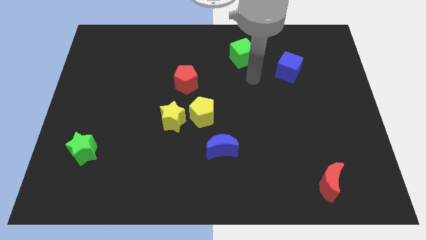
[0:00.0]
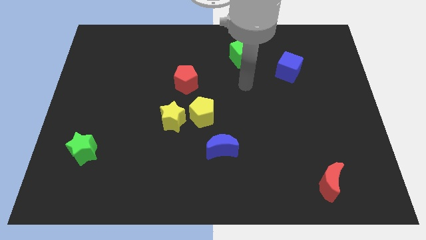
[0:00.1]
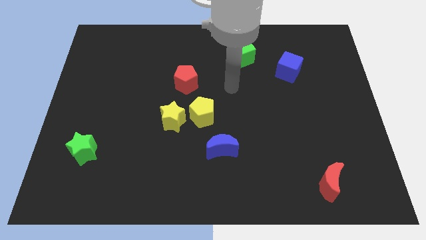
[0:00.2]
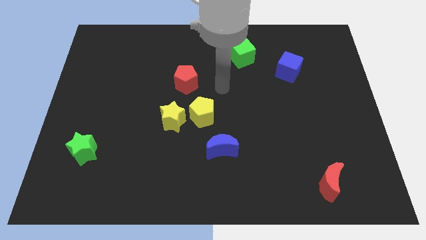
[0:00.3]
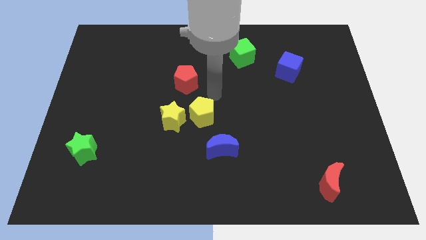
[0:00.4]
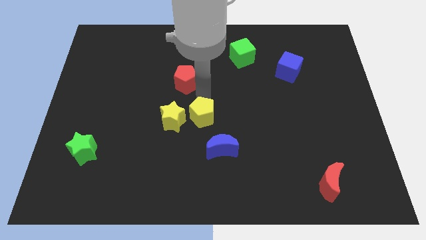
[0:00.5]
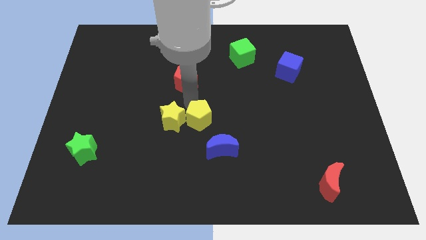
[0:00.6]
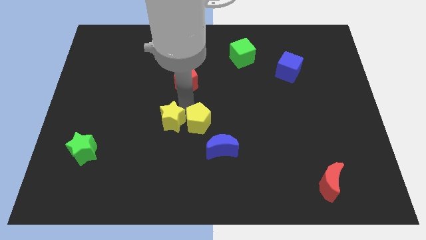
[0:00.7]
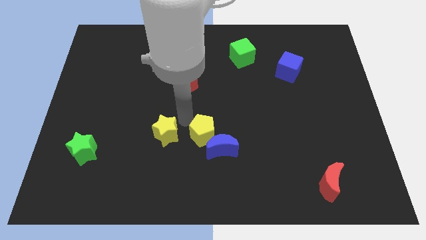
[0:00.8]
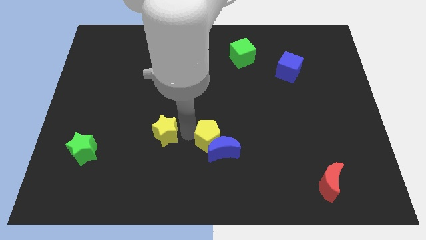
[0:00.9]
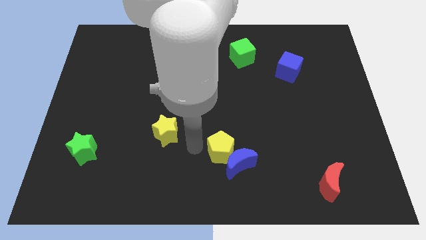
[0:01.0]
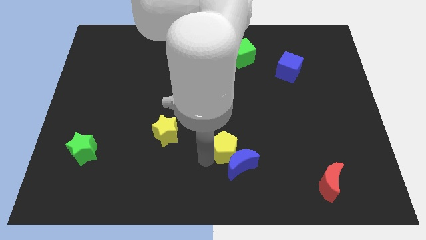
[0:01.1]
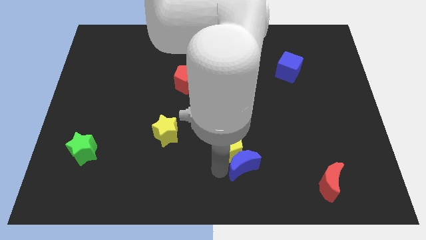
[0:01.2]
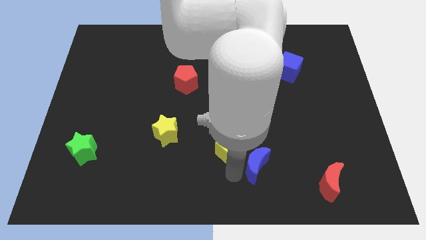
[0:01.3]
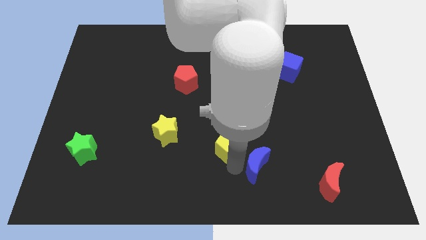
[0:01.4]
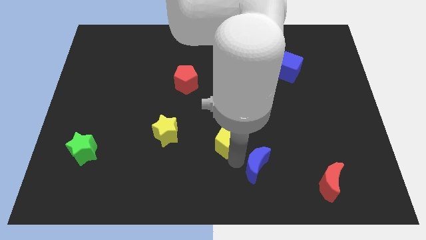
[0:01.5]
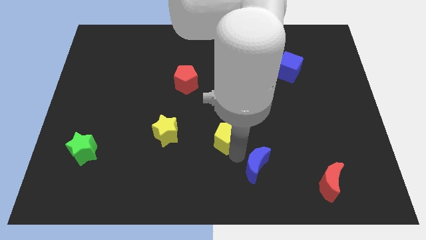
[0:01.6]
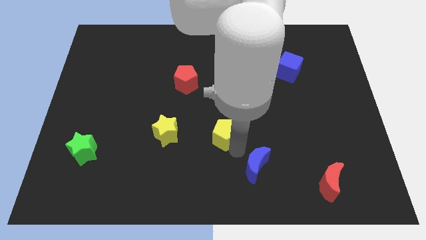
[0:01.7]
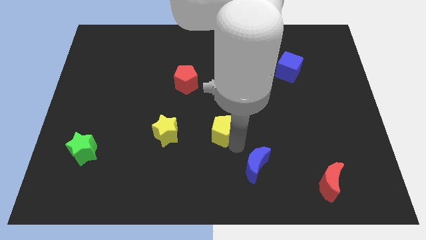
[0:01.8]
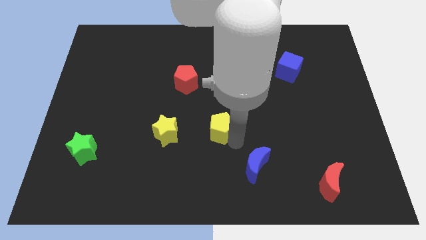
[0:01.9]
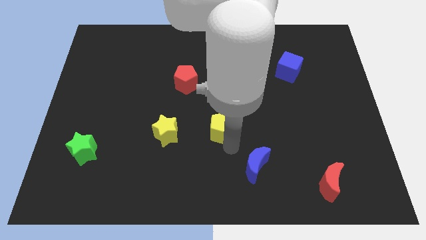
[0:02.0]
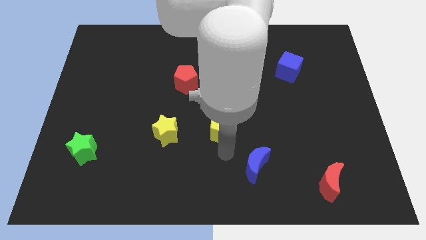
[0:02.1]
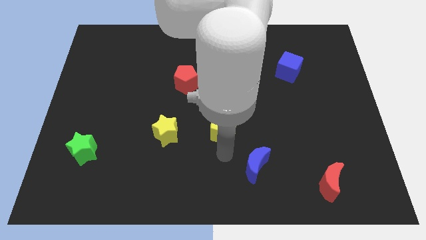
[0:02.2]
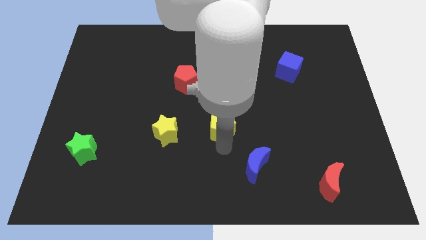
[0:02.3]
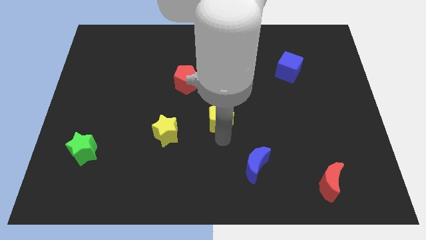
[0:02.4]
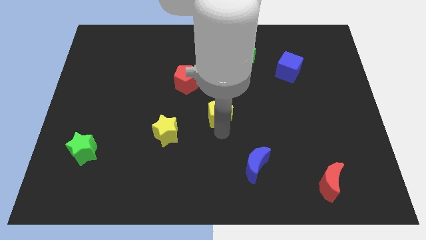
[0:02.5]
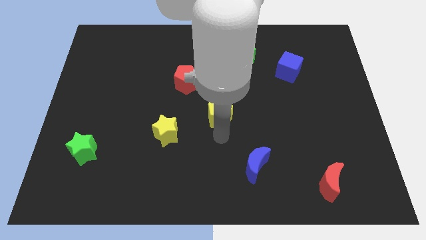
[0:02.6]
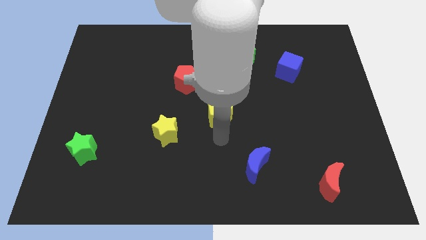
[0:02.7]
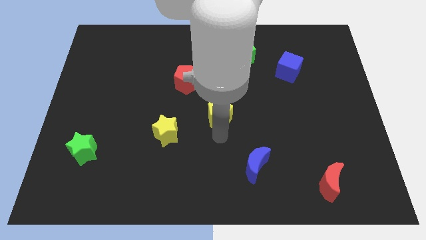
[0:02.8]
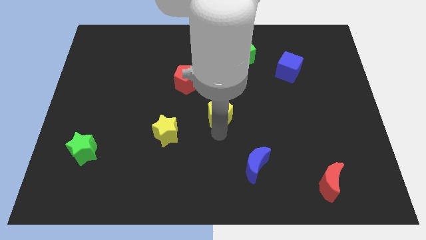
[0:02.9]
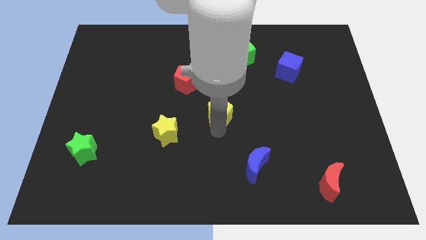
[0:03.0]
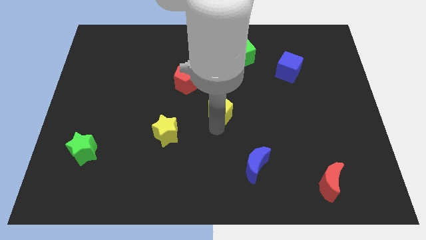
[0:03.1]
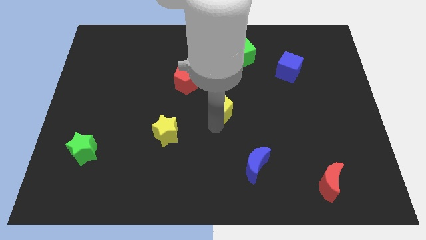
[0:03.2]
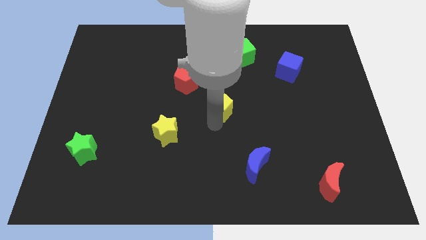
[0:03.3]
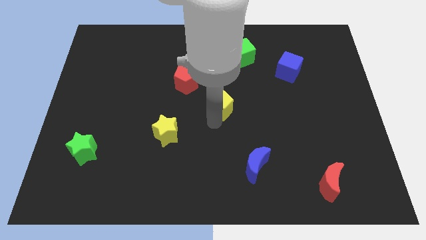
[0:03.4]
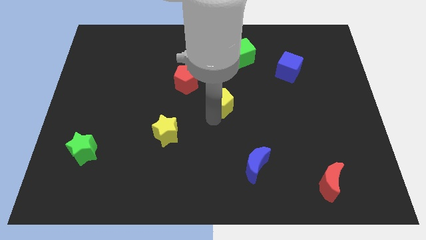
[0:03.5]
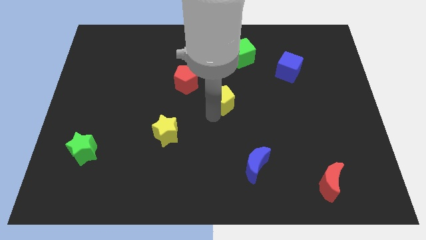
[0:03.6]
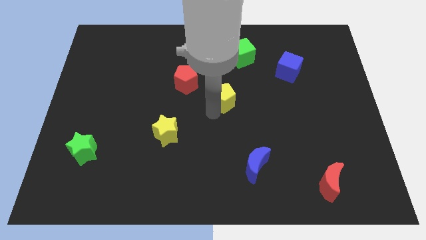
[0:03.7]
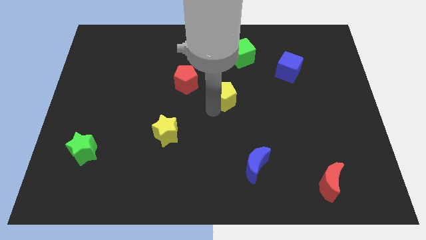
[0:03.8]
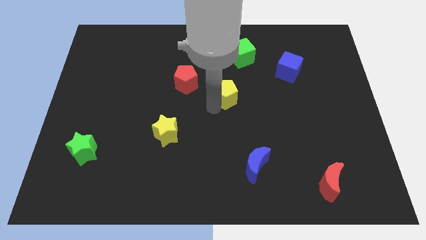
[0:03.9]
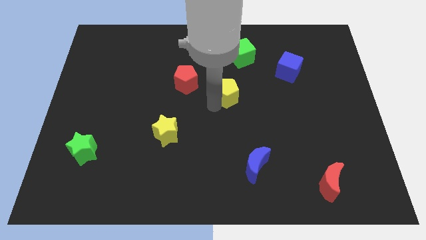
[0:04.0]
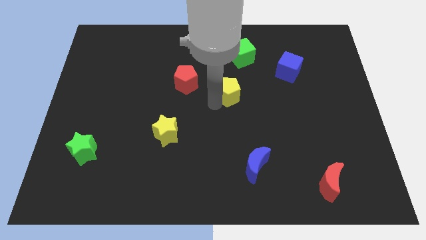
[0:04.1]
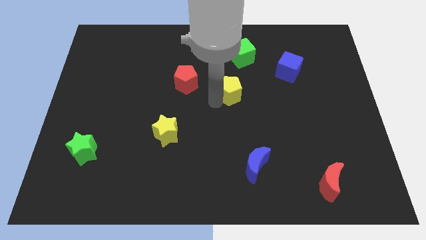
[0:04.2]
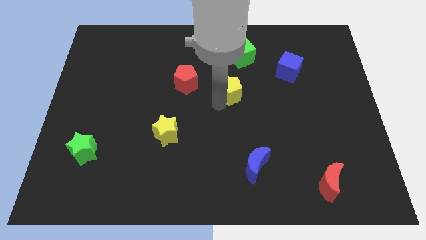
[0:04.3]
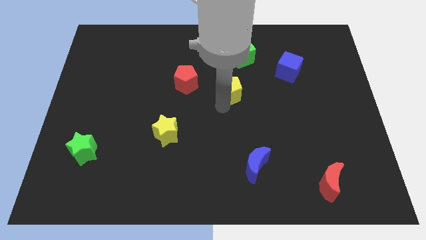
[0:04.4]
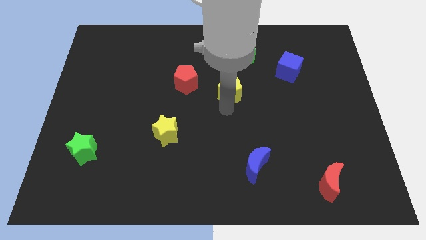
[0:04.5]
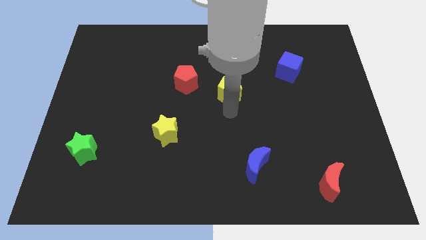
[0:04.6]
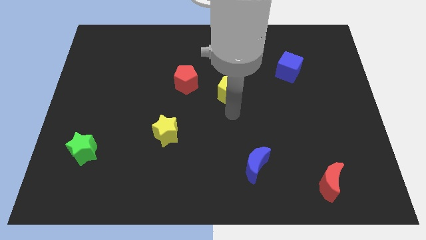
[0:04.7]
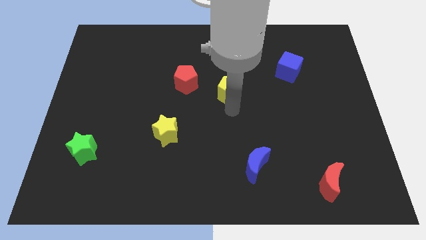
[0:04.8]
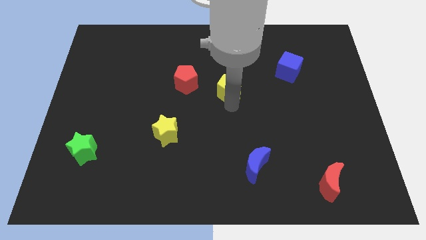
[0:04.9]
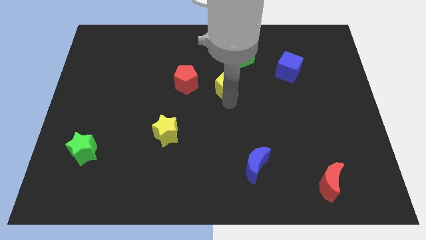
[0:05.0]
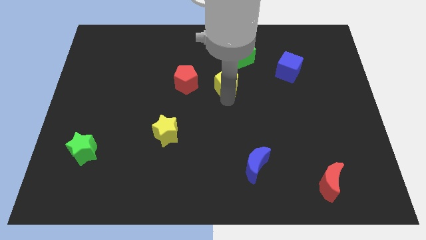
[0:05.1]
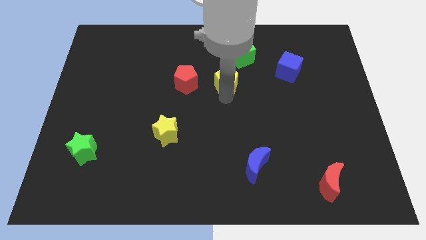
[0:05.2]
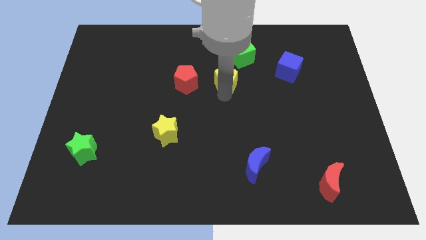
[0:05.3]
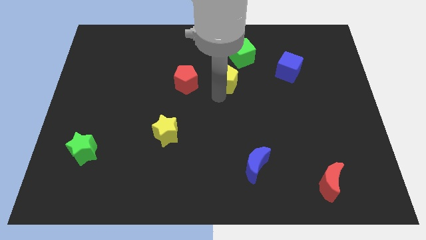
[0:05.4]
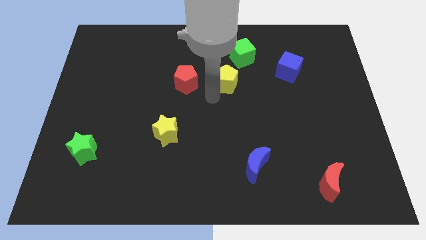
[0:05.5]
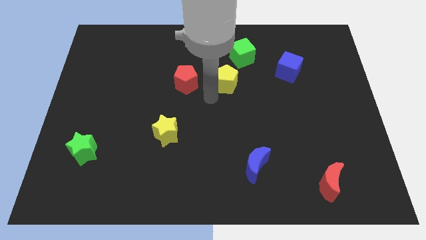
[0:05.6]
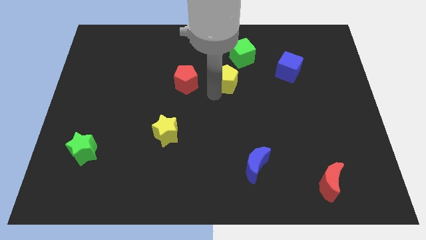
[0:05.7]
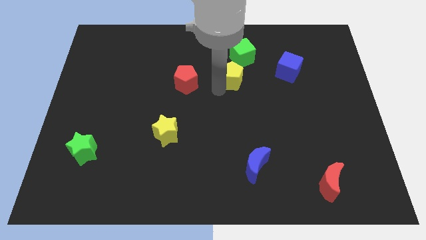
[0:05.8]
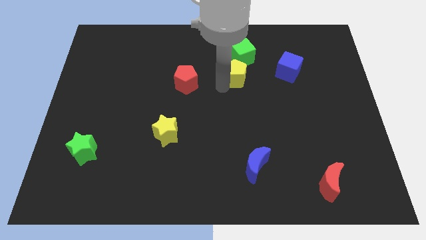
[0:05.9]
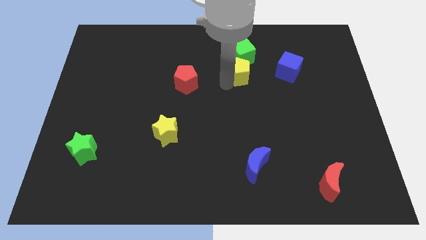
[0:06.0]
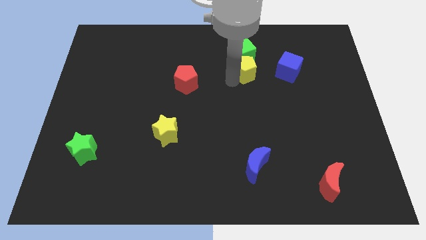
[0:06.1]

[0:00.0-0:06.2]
put the yellow pentagon next to the green cube

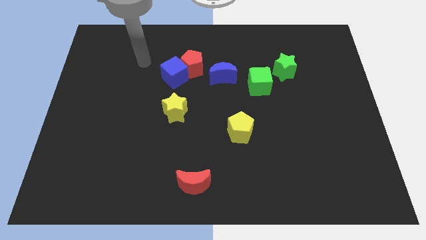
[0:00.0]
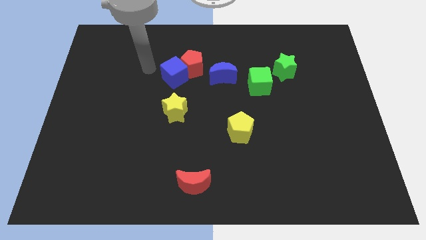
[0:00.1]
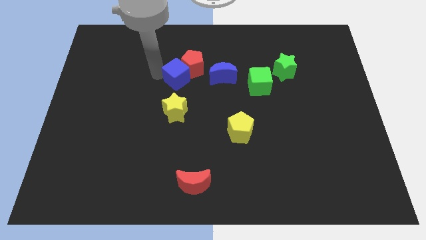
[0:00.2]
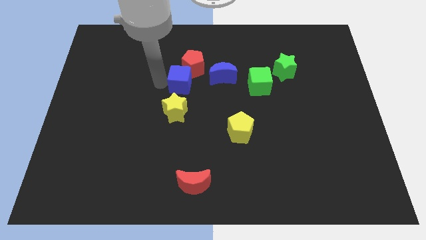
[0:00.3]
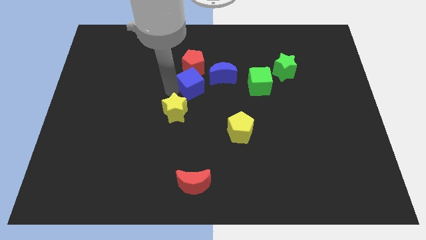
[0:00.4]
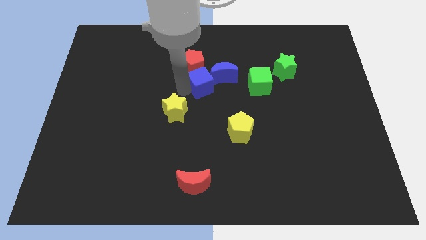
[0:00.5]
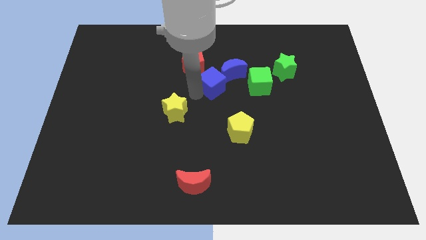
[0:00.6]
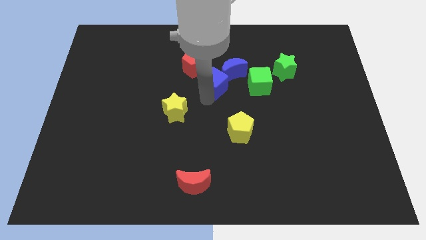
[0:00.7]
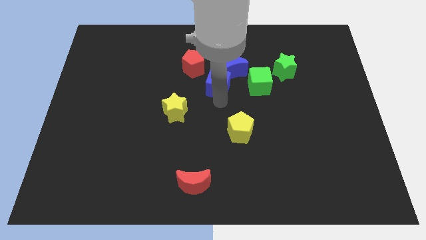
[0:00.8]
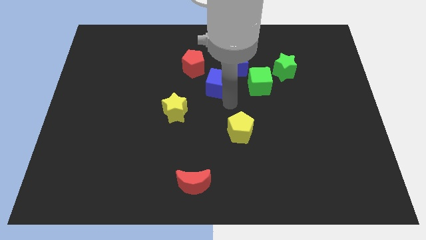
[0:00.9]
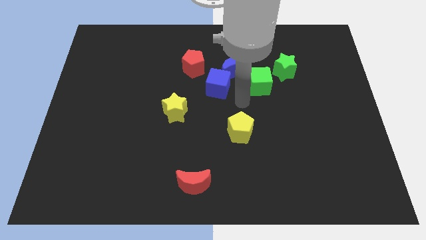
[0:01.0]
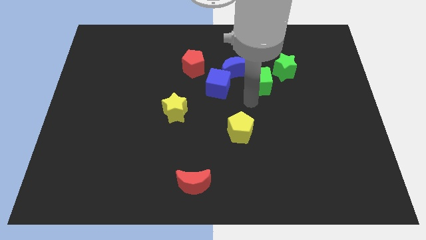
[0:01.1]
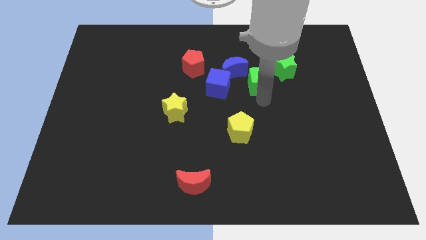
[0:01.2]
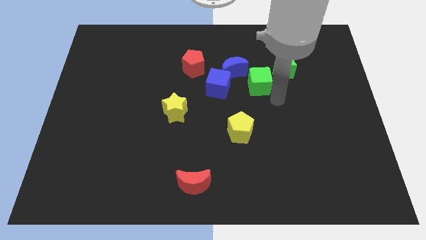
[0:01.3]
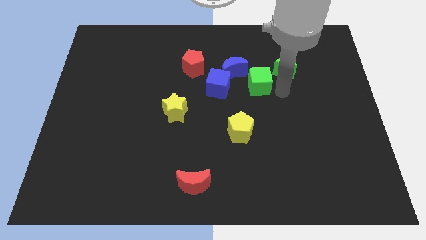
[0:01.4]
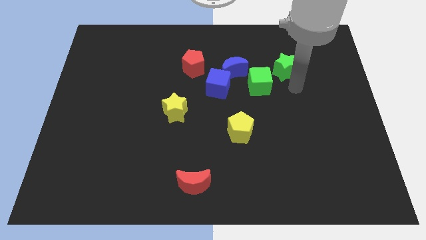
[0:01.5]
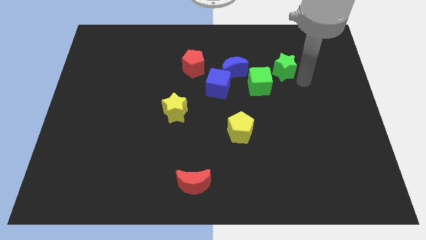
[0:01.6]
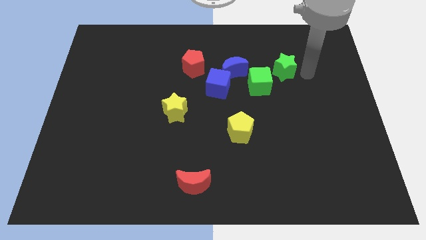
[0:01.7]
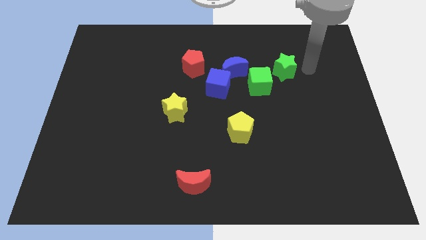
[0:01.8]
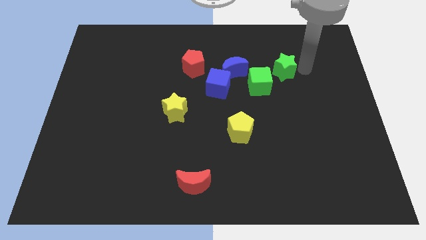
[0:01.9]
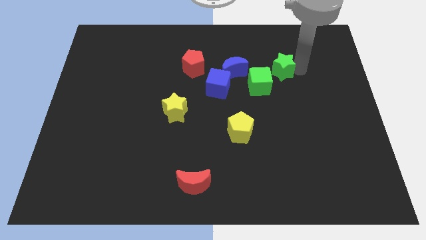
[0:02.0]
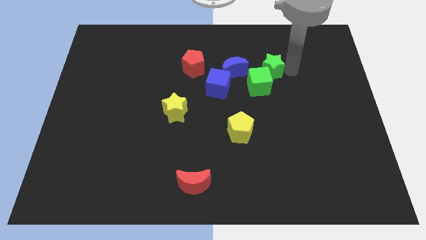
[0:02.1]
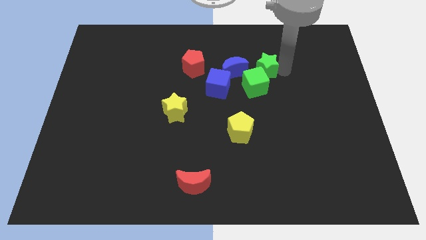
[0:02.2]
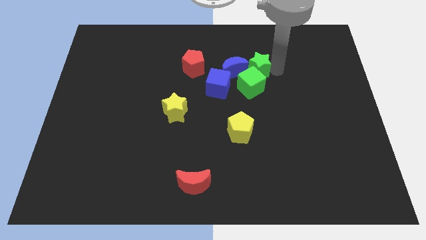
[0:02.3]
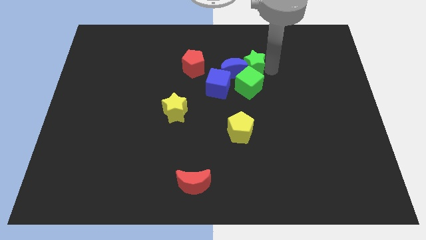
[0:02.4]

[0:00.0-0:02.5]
put the green star next to the blue moon
